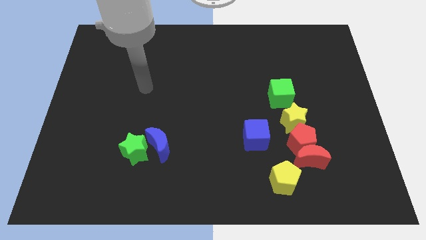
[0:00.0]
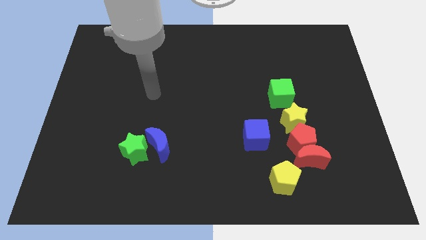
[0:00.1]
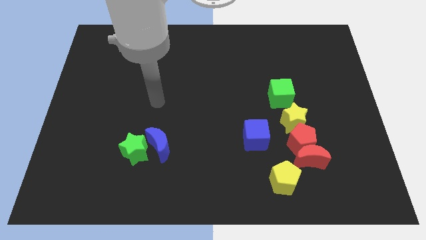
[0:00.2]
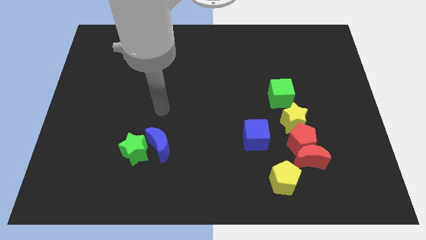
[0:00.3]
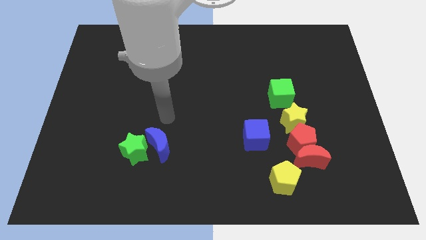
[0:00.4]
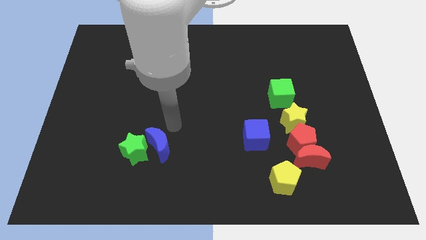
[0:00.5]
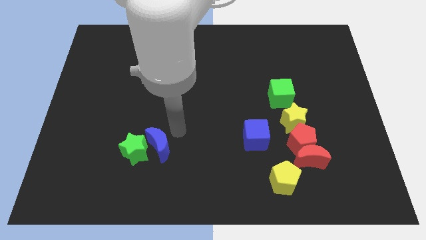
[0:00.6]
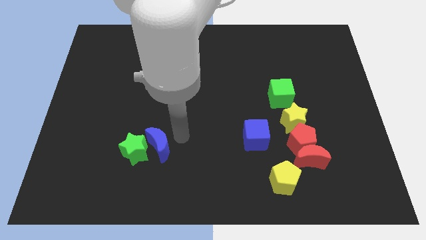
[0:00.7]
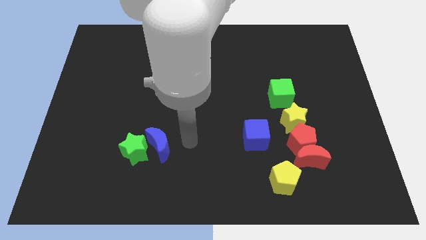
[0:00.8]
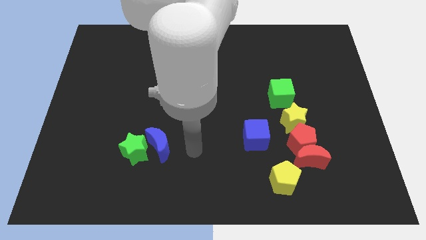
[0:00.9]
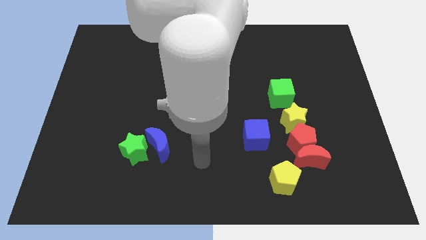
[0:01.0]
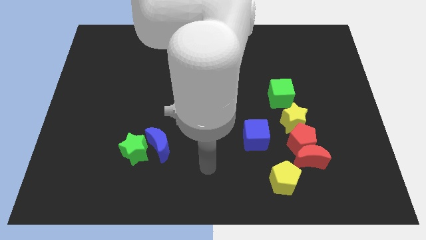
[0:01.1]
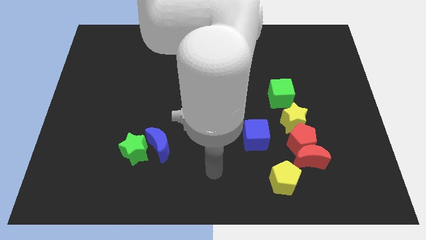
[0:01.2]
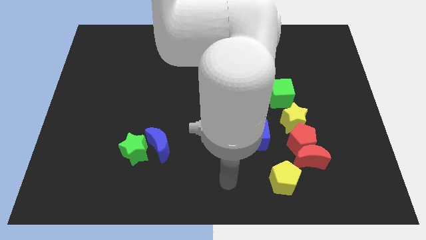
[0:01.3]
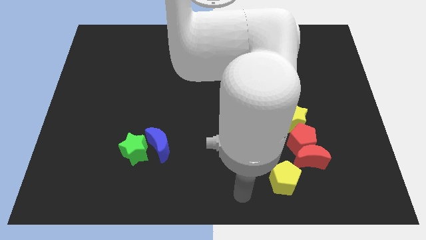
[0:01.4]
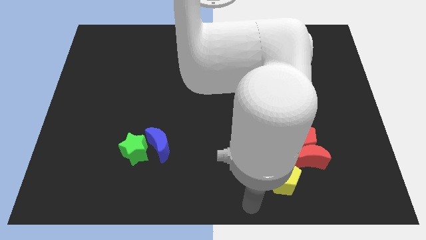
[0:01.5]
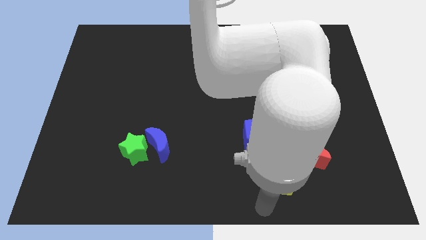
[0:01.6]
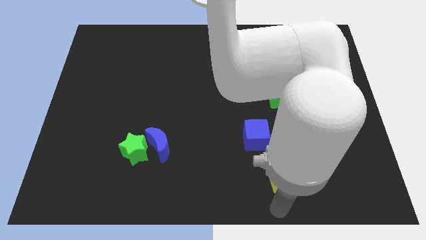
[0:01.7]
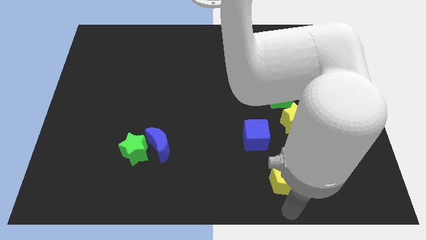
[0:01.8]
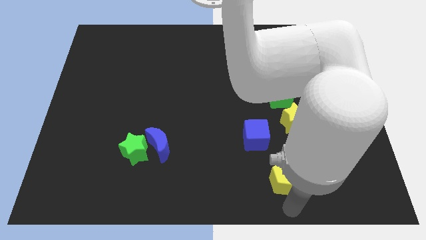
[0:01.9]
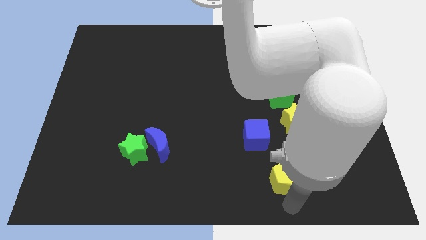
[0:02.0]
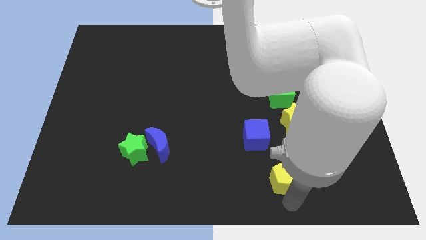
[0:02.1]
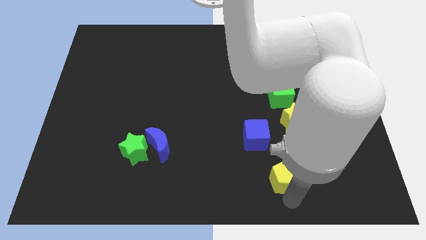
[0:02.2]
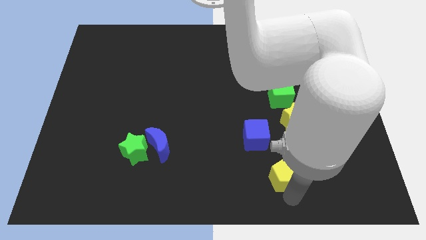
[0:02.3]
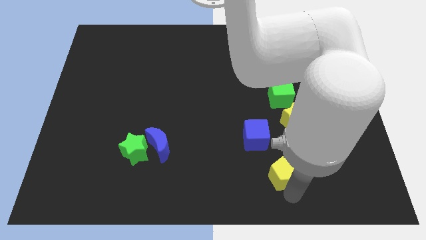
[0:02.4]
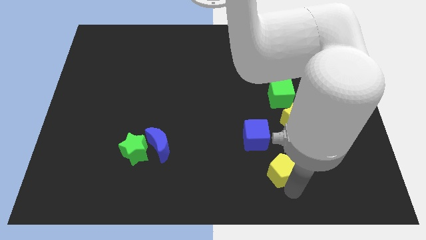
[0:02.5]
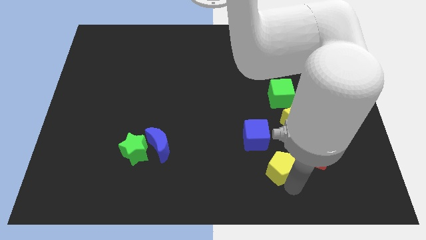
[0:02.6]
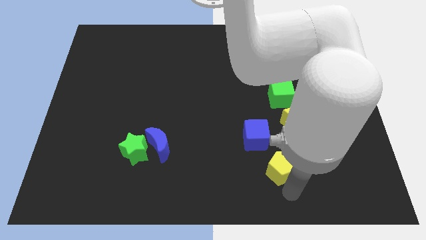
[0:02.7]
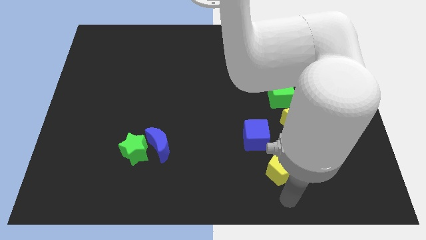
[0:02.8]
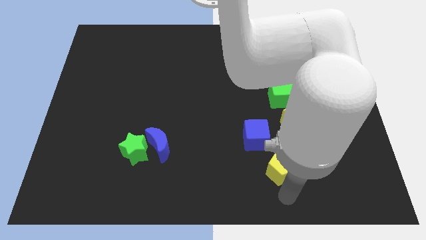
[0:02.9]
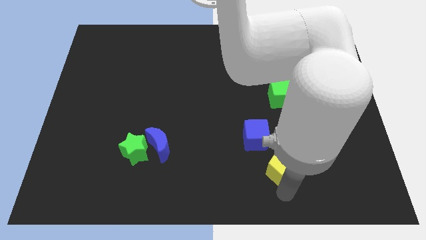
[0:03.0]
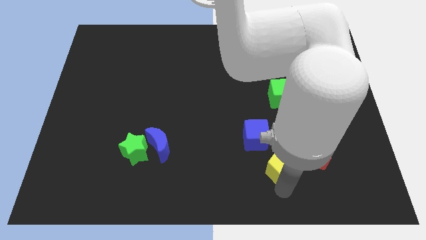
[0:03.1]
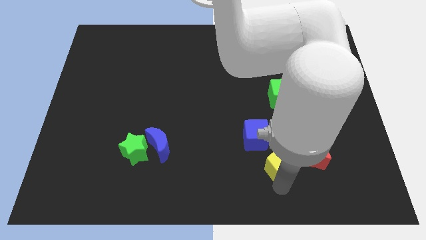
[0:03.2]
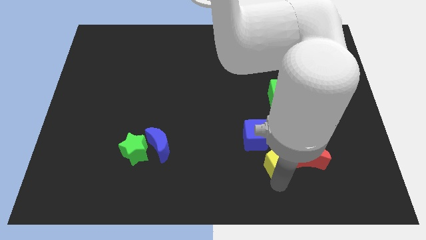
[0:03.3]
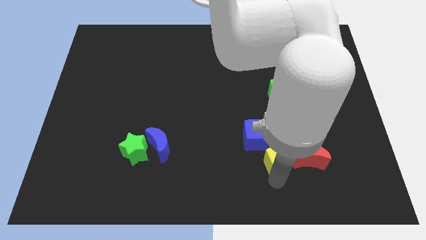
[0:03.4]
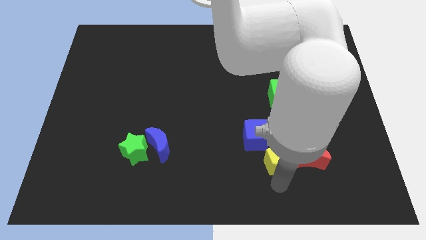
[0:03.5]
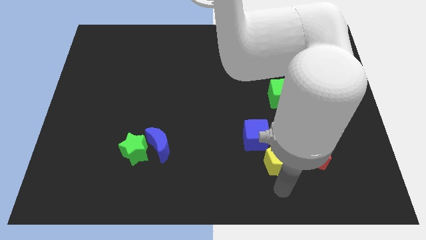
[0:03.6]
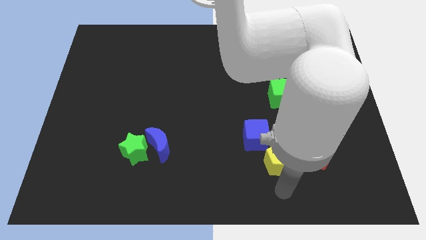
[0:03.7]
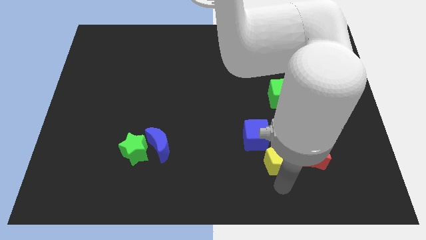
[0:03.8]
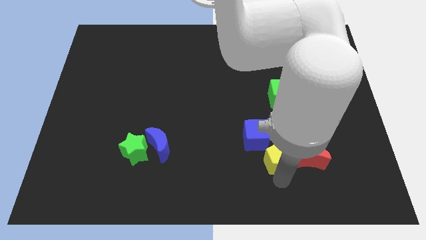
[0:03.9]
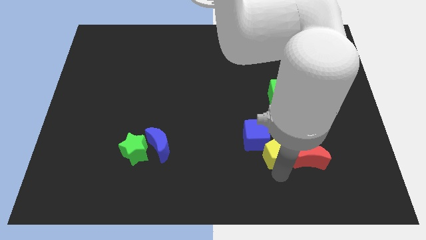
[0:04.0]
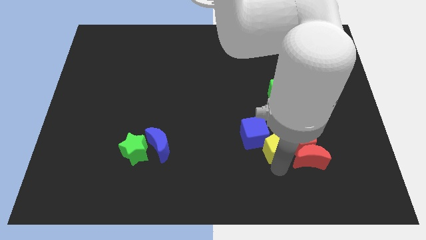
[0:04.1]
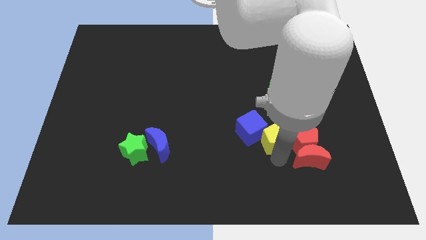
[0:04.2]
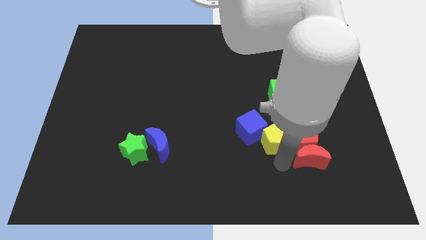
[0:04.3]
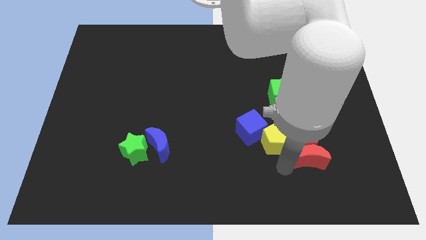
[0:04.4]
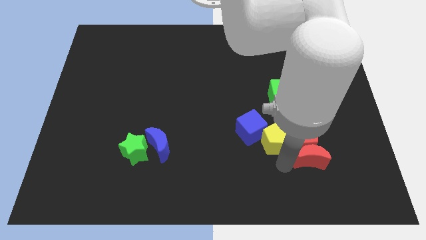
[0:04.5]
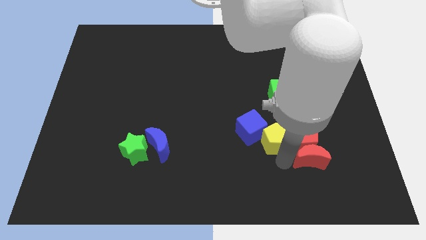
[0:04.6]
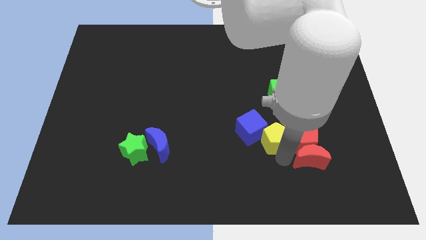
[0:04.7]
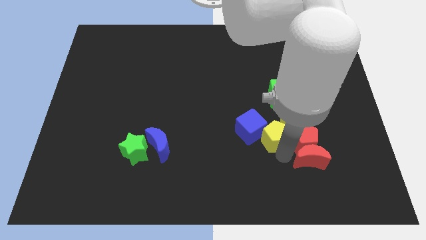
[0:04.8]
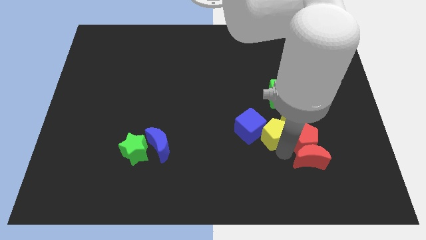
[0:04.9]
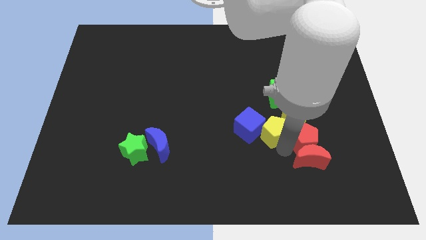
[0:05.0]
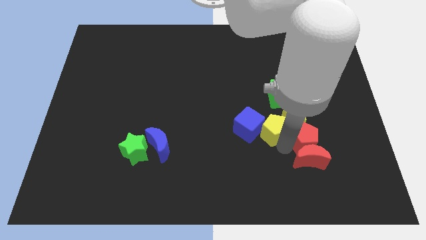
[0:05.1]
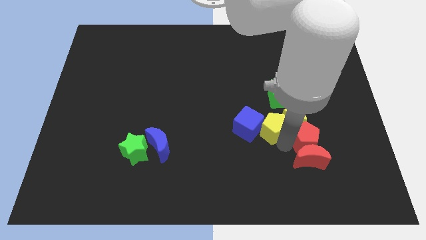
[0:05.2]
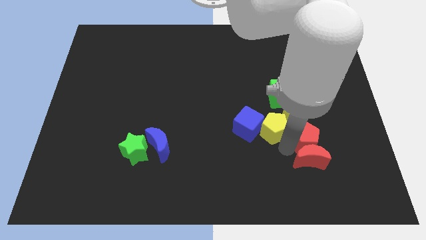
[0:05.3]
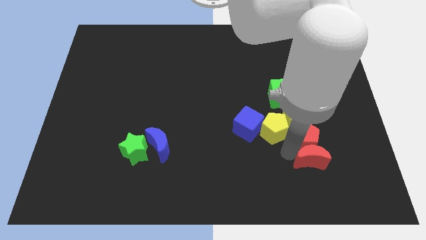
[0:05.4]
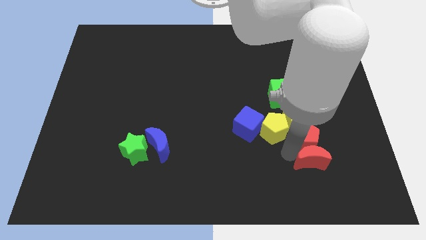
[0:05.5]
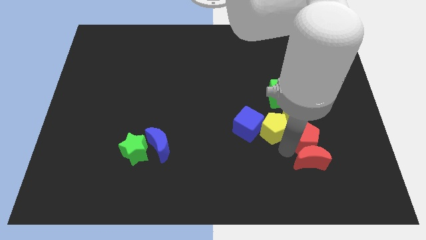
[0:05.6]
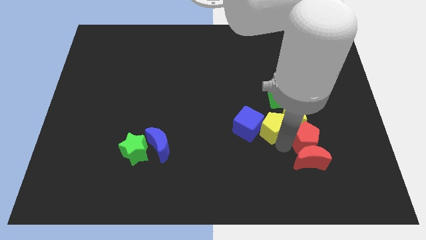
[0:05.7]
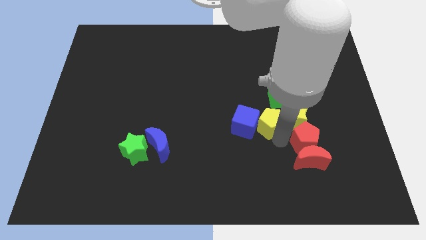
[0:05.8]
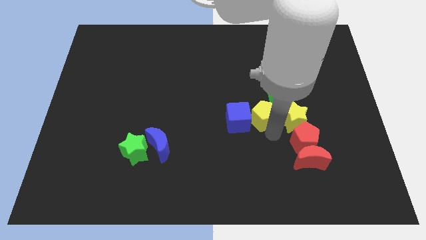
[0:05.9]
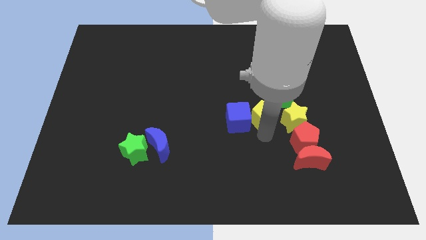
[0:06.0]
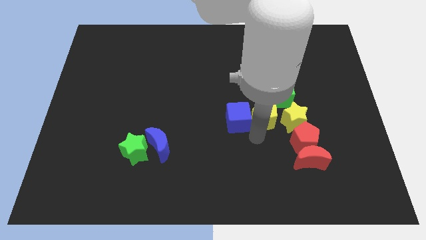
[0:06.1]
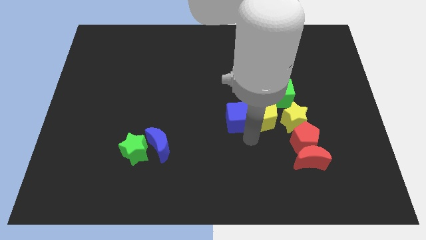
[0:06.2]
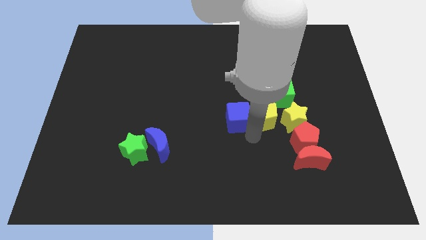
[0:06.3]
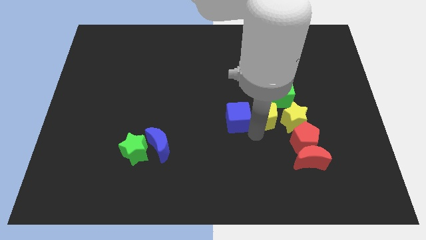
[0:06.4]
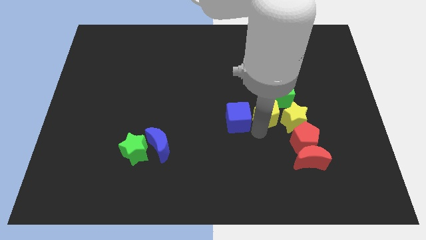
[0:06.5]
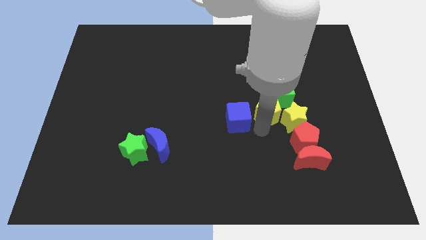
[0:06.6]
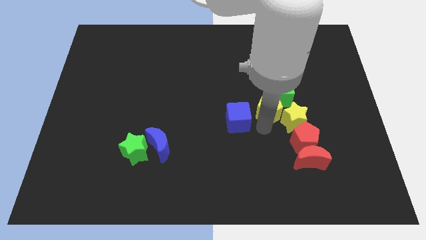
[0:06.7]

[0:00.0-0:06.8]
put the yellow pentagon next to the green cube

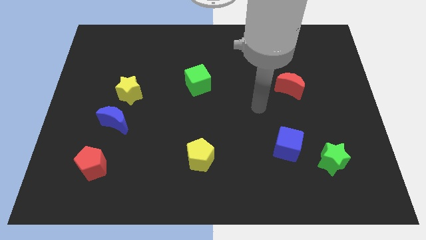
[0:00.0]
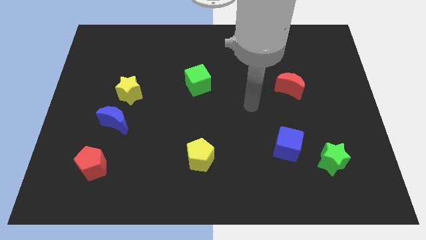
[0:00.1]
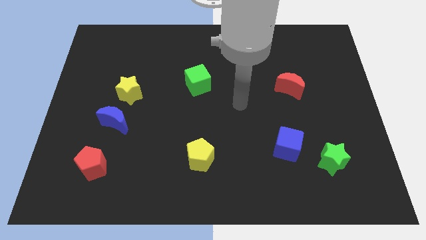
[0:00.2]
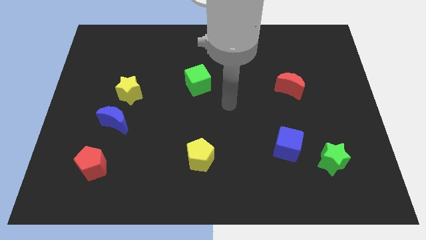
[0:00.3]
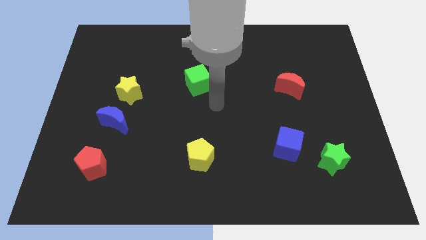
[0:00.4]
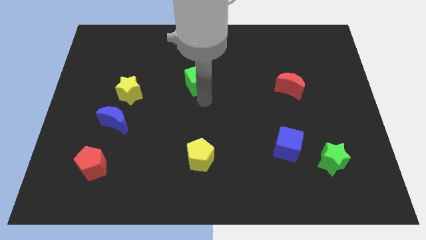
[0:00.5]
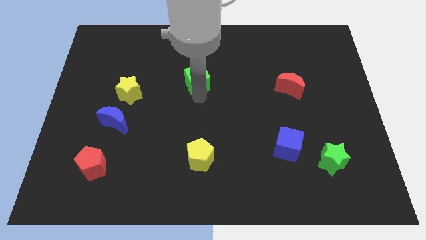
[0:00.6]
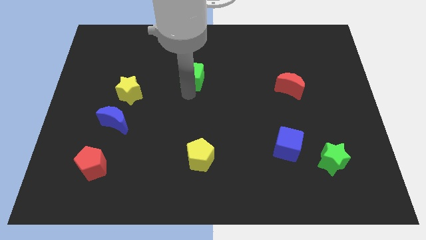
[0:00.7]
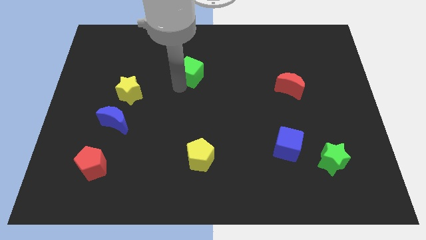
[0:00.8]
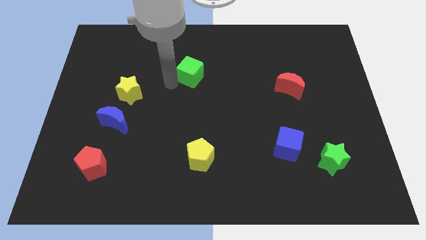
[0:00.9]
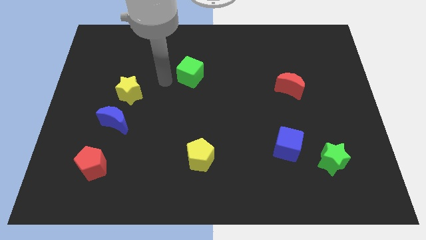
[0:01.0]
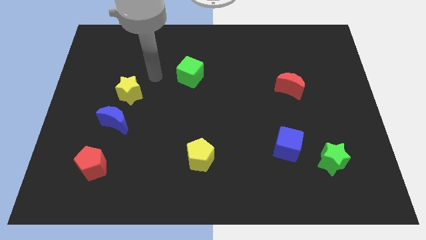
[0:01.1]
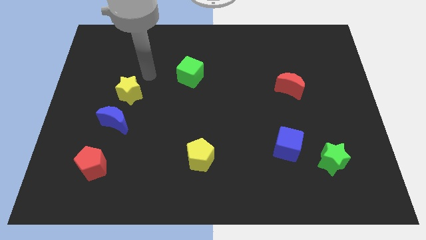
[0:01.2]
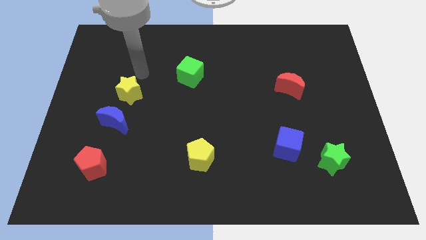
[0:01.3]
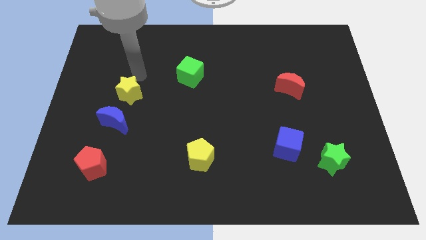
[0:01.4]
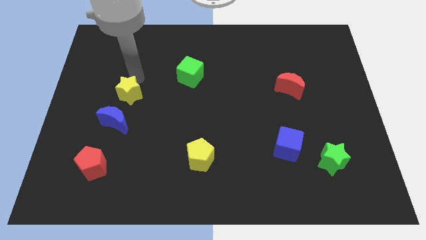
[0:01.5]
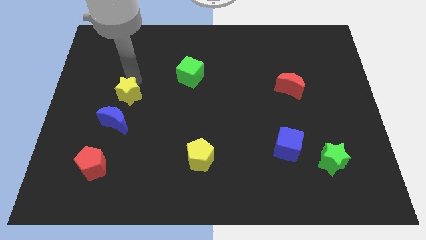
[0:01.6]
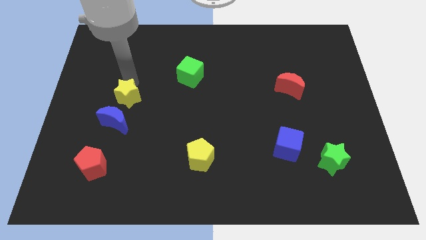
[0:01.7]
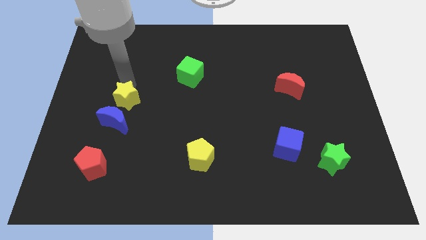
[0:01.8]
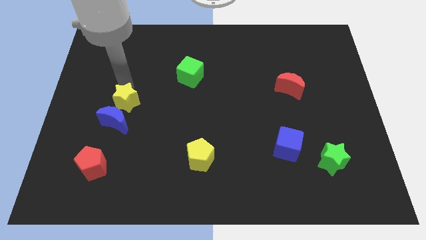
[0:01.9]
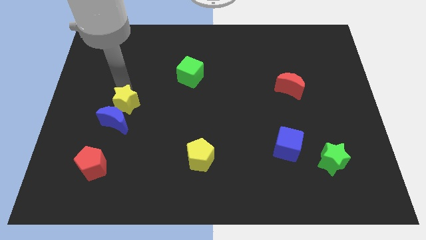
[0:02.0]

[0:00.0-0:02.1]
move the yellow star towards the blue moon
